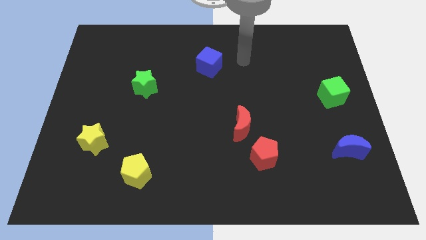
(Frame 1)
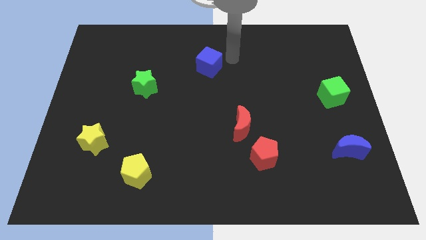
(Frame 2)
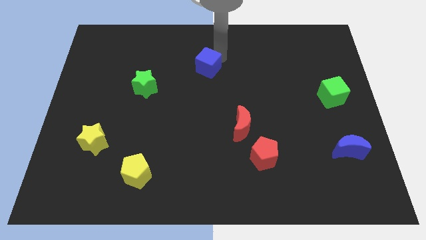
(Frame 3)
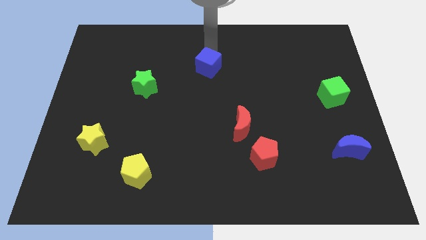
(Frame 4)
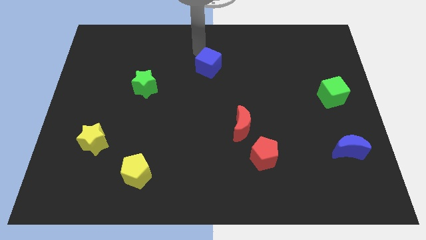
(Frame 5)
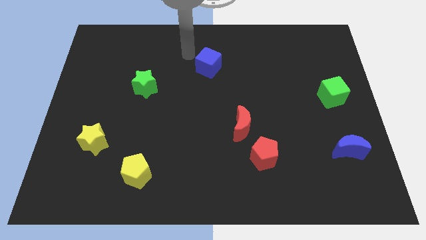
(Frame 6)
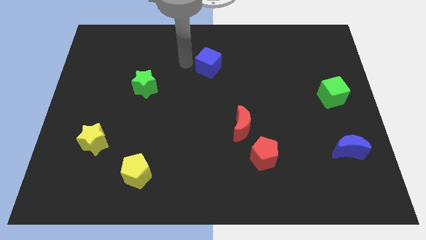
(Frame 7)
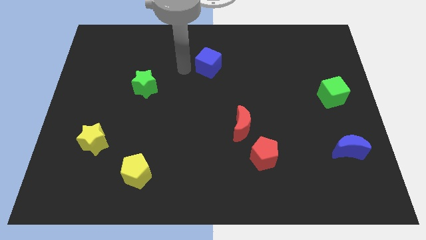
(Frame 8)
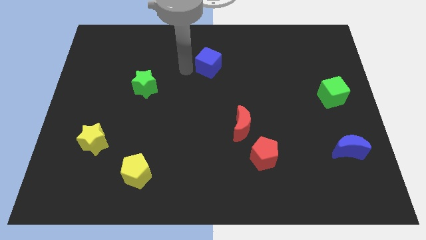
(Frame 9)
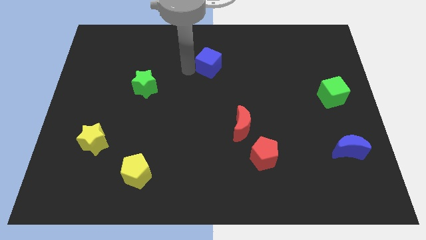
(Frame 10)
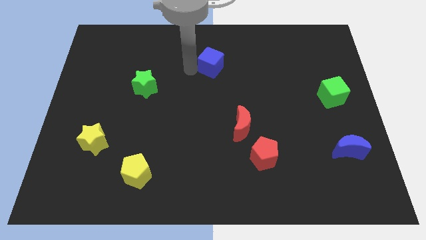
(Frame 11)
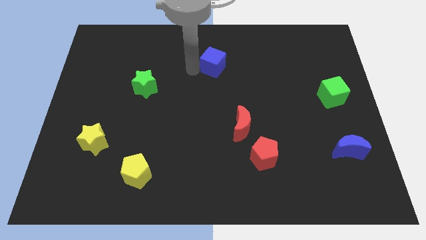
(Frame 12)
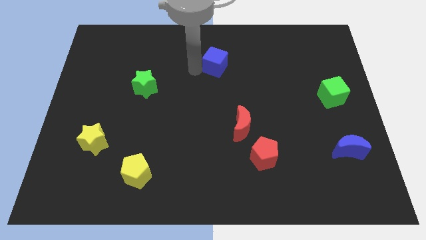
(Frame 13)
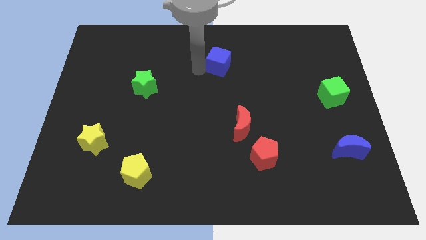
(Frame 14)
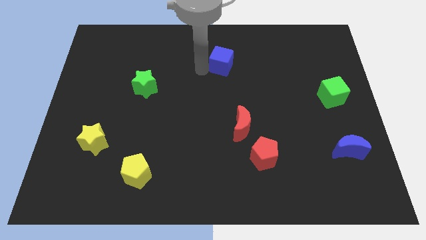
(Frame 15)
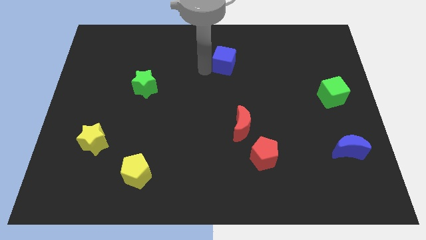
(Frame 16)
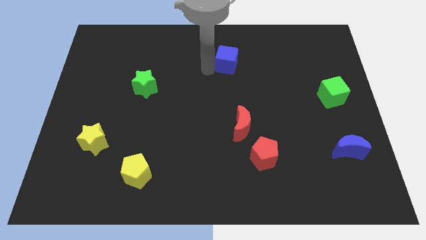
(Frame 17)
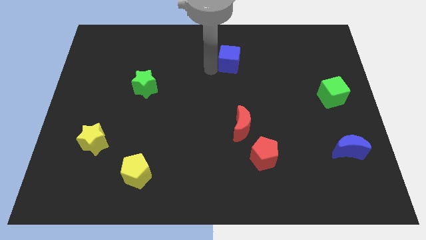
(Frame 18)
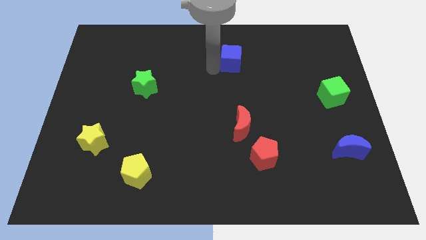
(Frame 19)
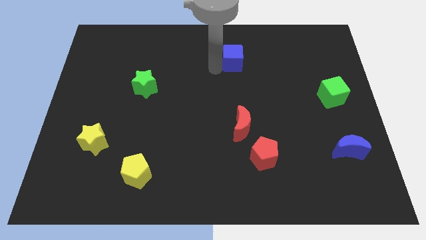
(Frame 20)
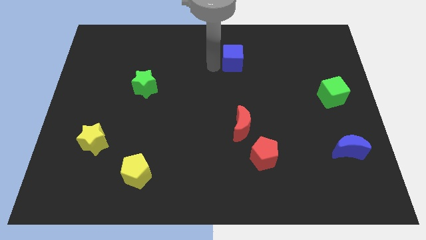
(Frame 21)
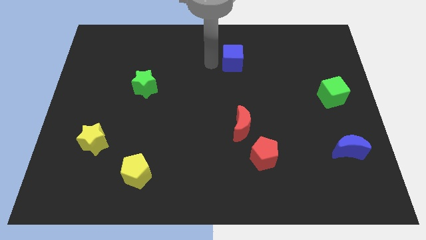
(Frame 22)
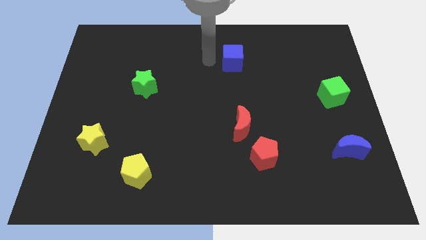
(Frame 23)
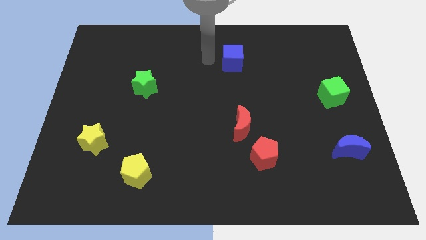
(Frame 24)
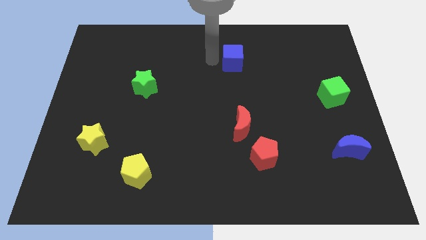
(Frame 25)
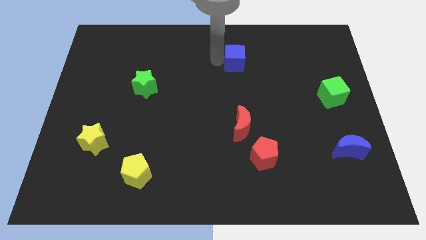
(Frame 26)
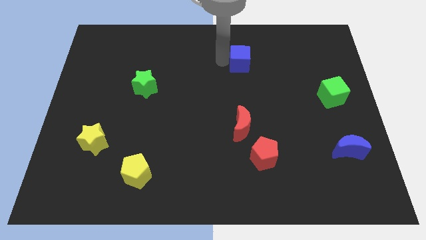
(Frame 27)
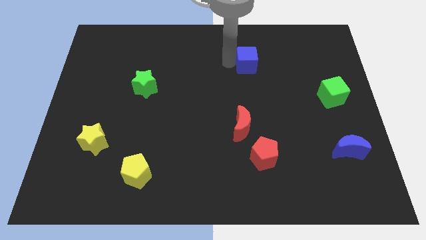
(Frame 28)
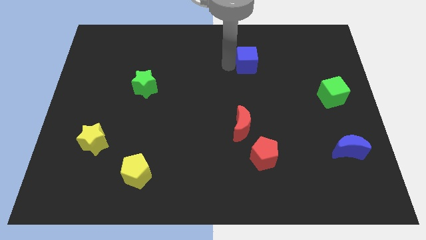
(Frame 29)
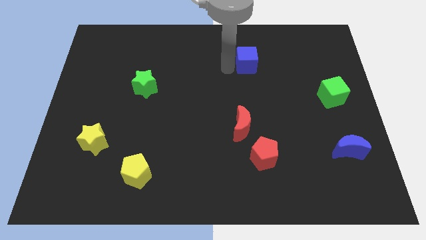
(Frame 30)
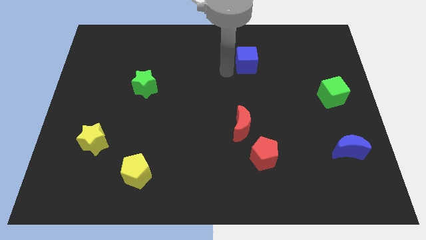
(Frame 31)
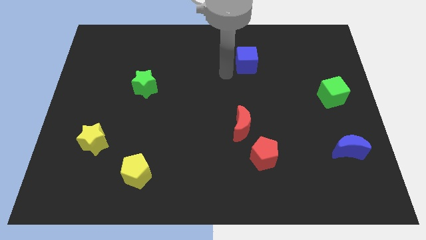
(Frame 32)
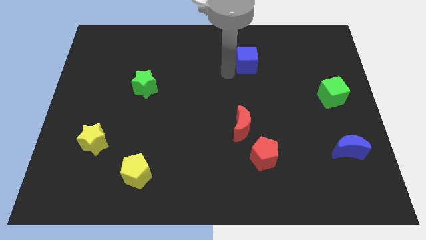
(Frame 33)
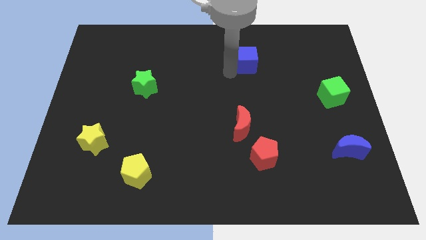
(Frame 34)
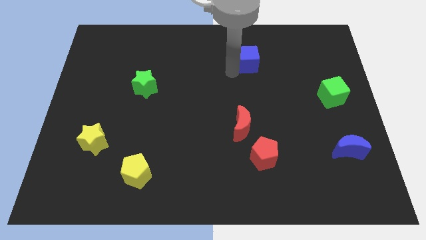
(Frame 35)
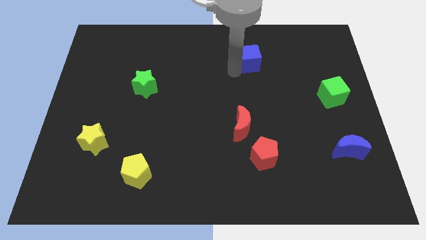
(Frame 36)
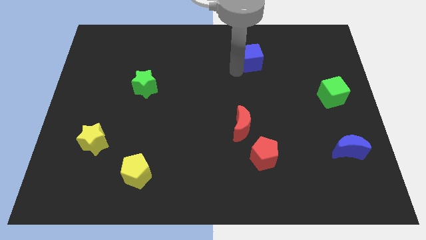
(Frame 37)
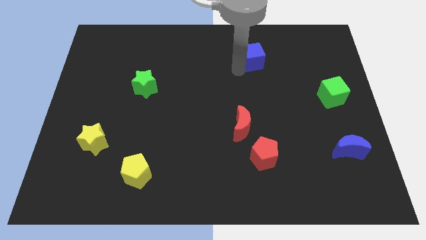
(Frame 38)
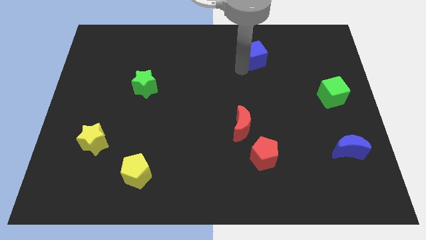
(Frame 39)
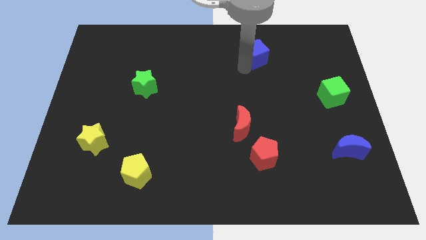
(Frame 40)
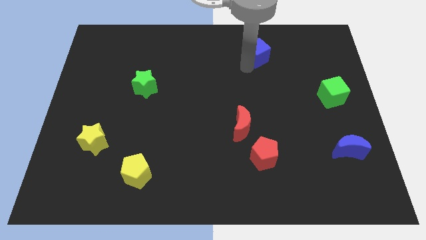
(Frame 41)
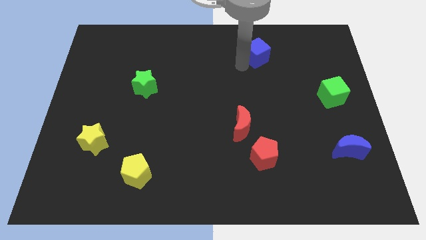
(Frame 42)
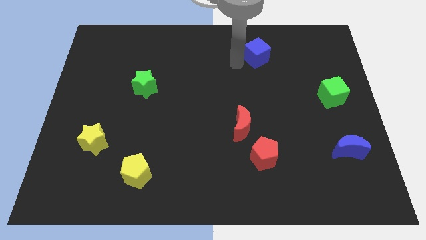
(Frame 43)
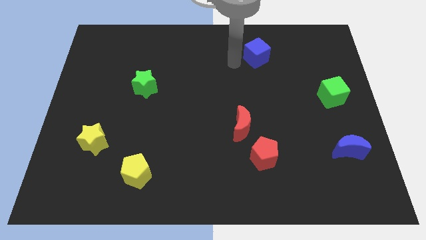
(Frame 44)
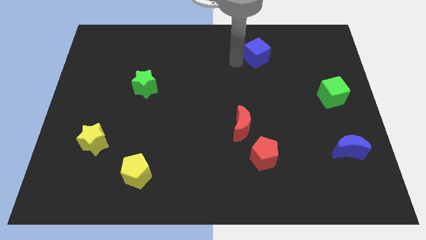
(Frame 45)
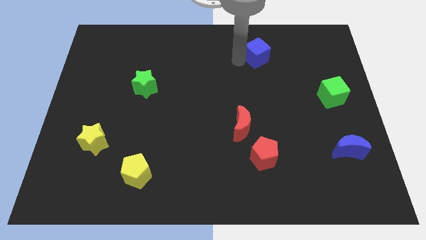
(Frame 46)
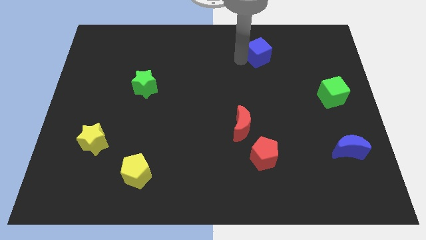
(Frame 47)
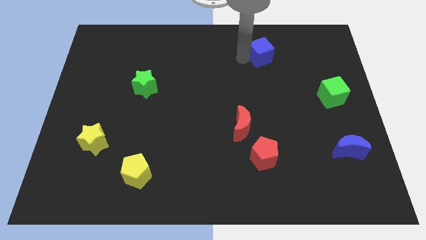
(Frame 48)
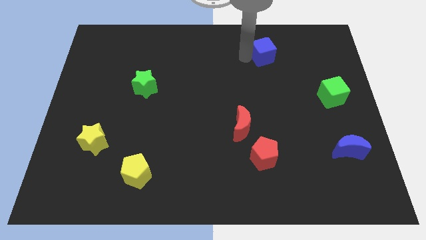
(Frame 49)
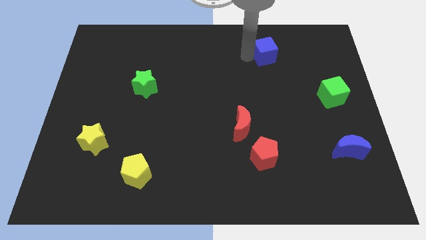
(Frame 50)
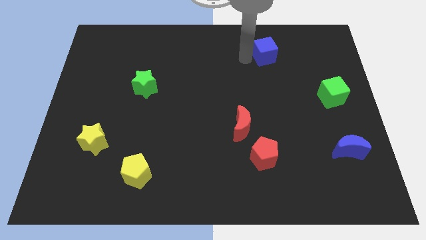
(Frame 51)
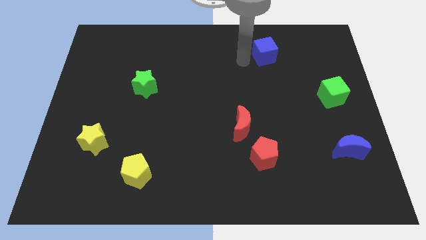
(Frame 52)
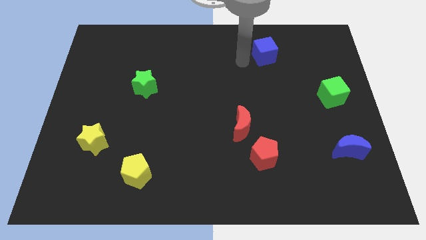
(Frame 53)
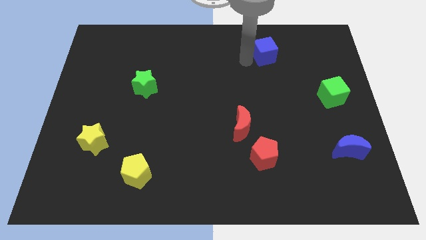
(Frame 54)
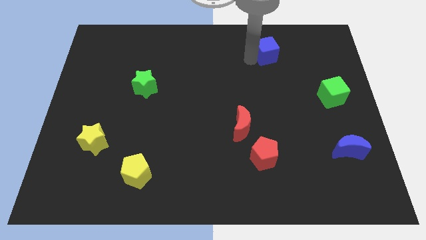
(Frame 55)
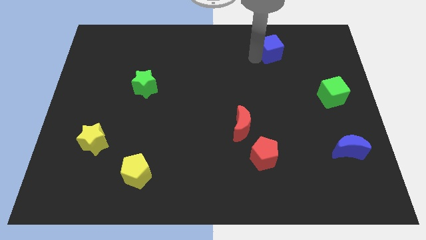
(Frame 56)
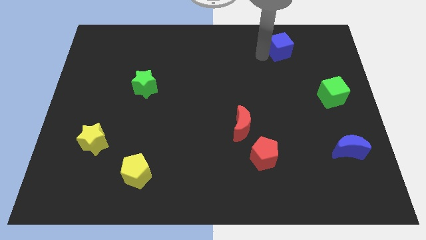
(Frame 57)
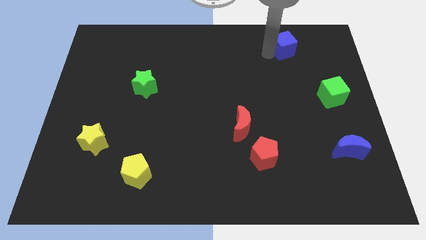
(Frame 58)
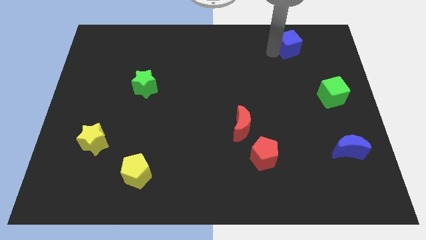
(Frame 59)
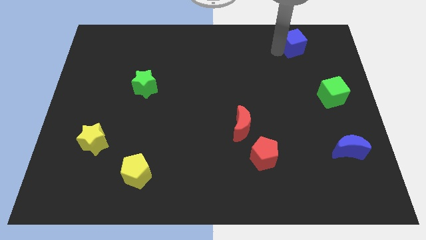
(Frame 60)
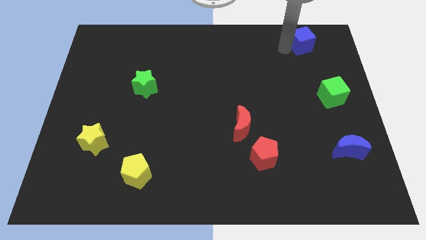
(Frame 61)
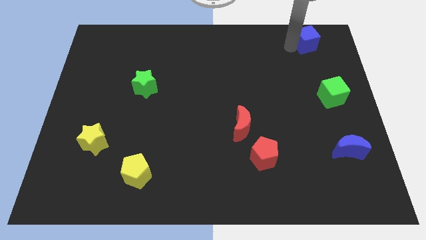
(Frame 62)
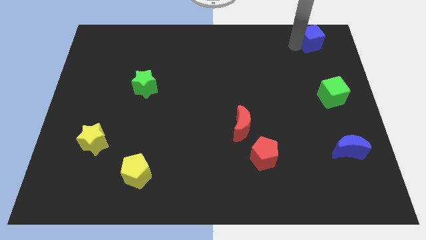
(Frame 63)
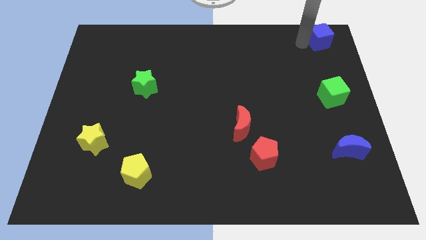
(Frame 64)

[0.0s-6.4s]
move the blue cube to the top right corner
